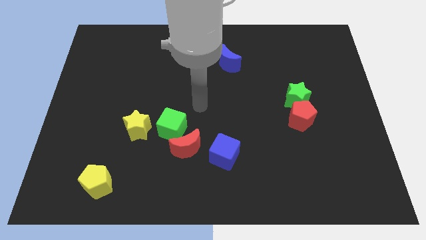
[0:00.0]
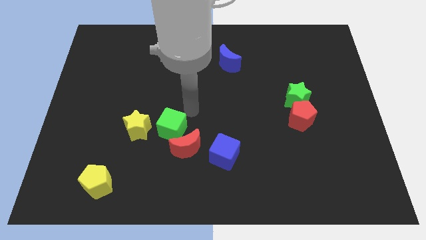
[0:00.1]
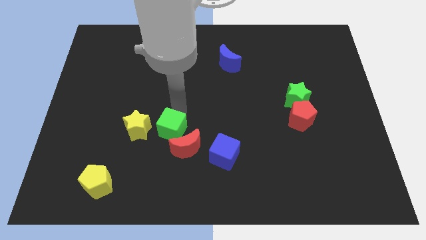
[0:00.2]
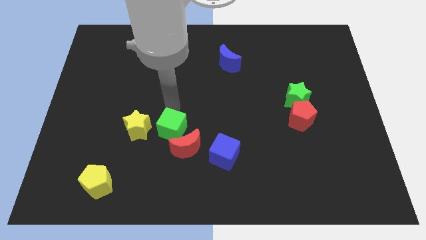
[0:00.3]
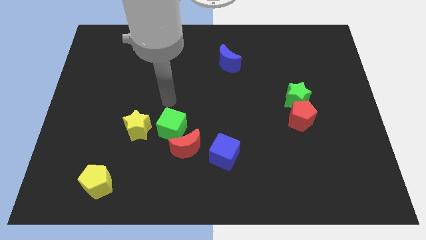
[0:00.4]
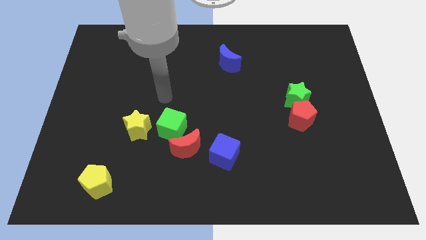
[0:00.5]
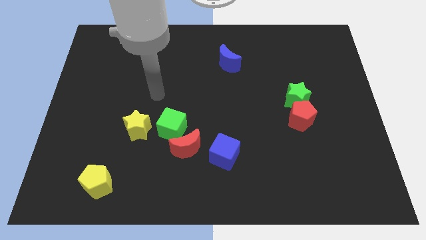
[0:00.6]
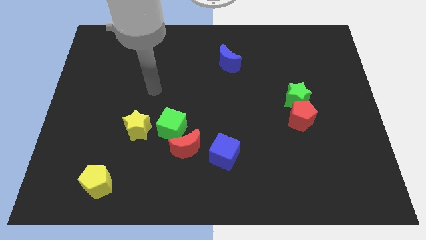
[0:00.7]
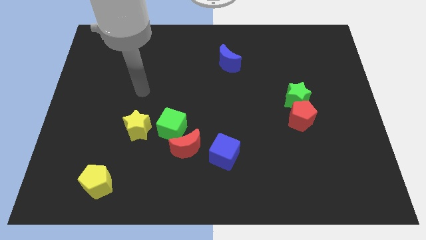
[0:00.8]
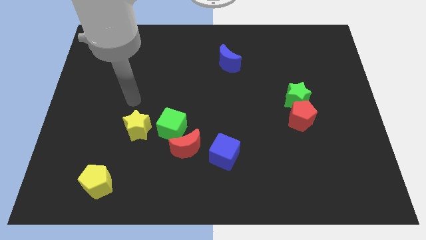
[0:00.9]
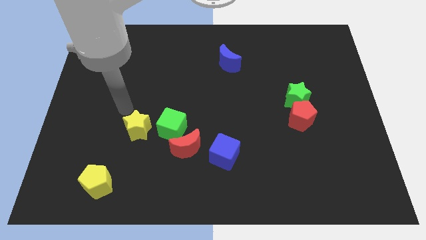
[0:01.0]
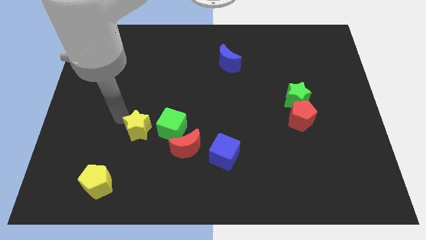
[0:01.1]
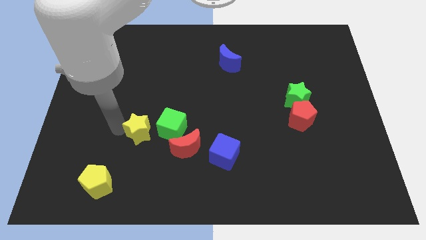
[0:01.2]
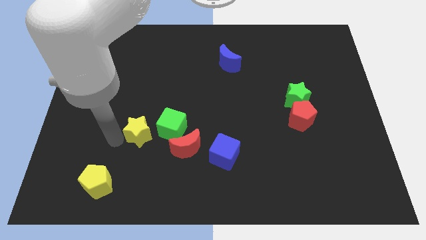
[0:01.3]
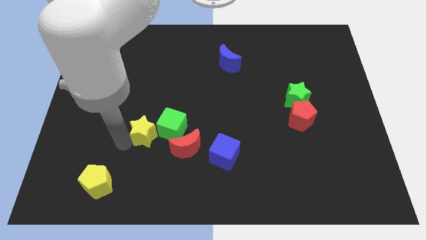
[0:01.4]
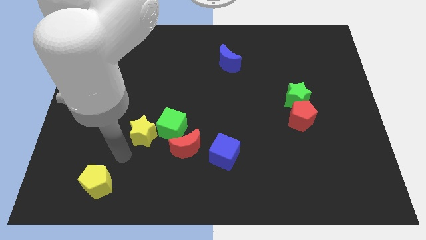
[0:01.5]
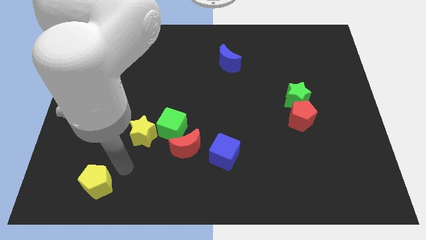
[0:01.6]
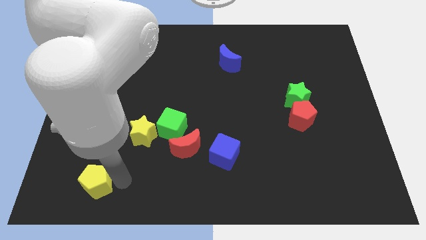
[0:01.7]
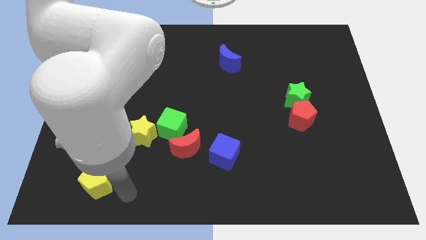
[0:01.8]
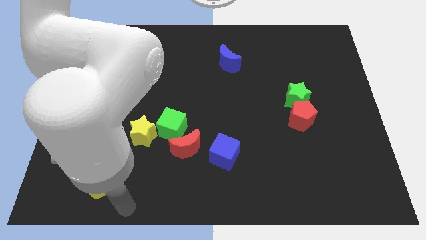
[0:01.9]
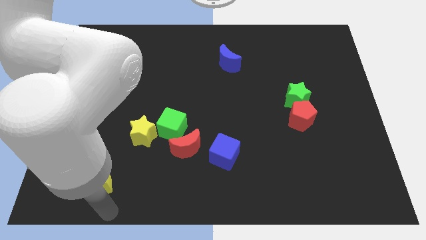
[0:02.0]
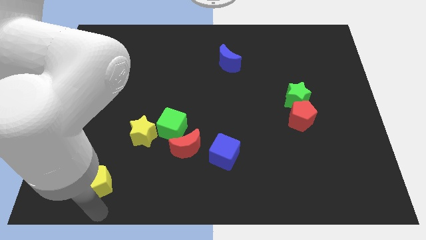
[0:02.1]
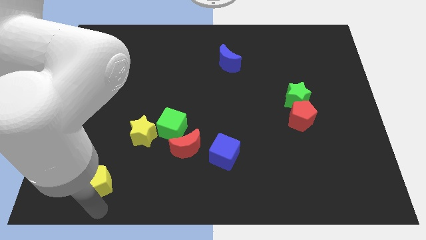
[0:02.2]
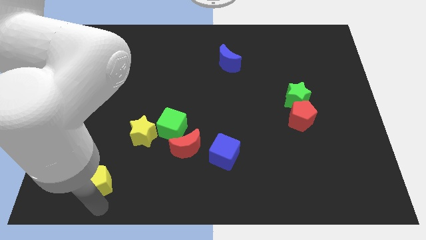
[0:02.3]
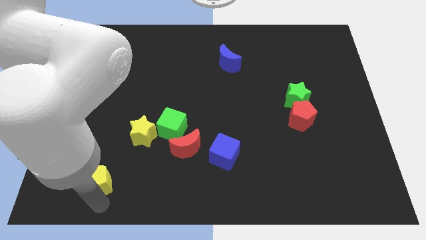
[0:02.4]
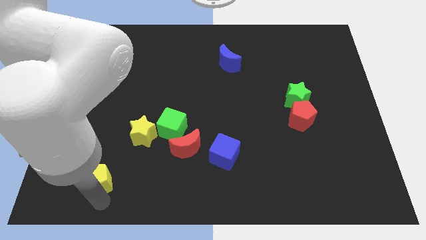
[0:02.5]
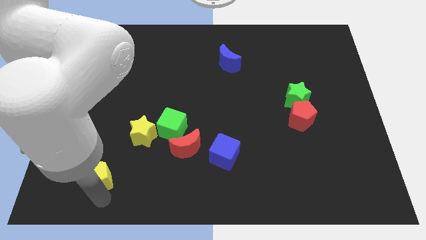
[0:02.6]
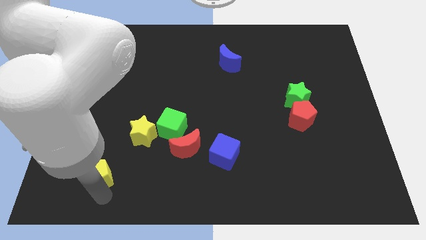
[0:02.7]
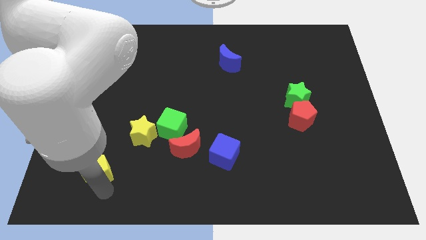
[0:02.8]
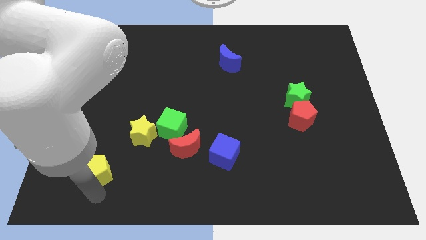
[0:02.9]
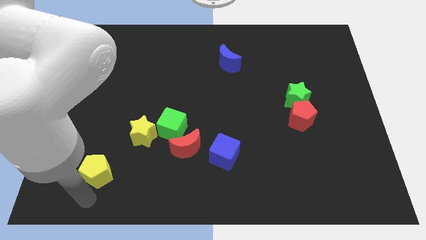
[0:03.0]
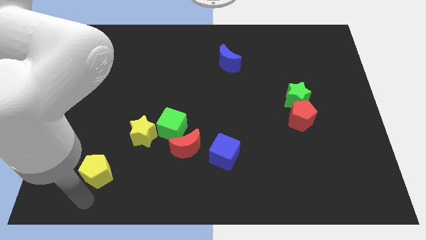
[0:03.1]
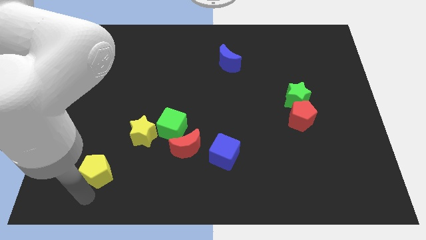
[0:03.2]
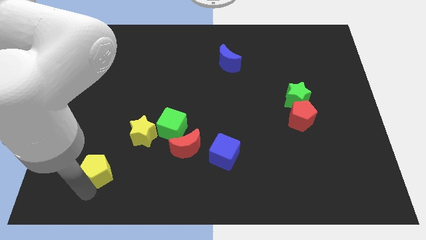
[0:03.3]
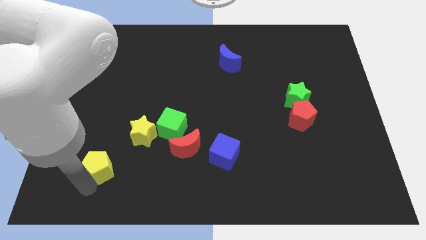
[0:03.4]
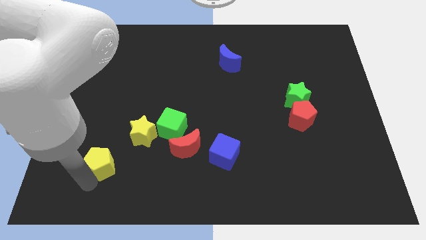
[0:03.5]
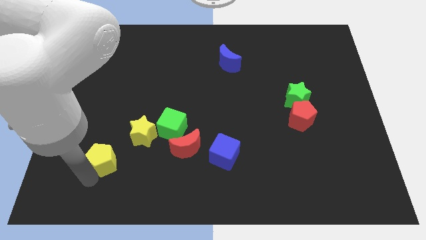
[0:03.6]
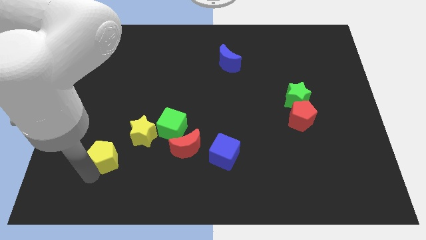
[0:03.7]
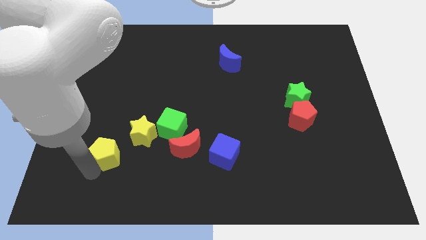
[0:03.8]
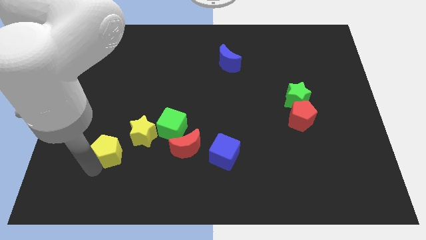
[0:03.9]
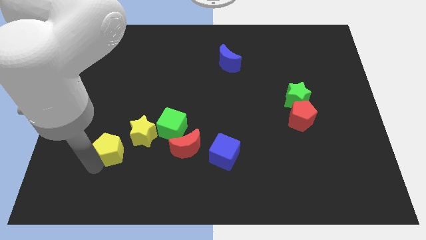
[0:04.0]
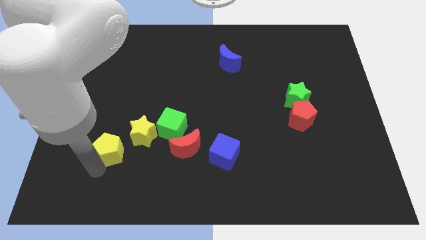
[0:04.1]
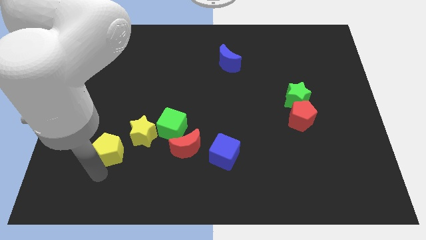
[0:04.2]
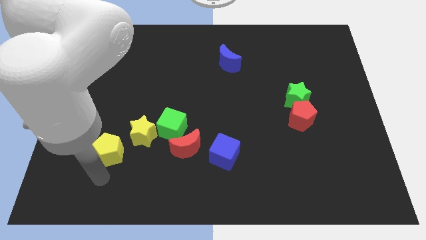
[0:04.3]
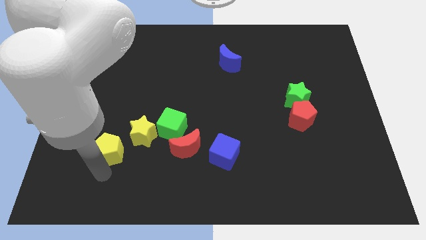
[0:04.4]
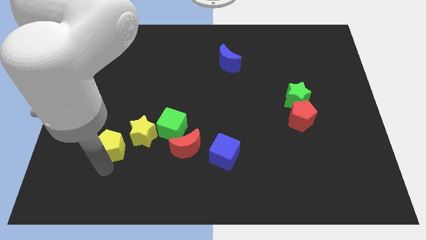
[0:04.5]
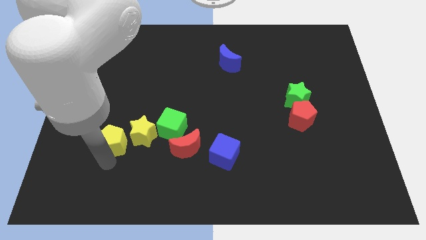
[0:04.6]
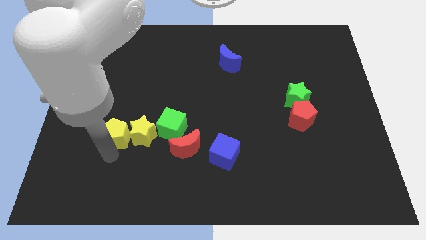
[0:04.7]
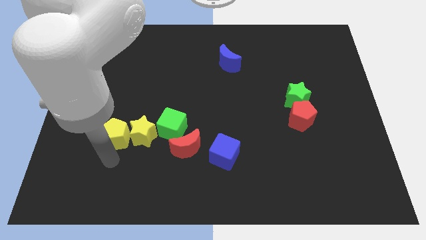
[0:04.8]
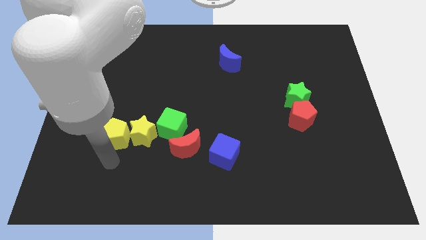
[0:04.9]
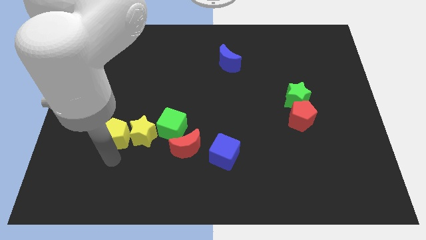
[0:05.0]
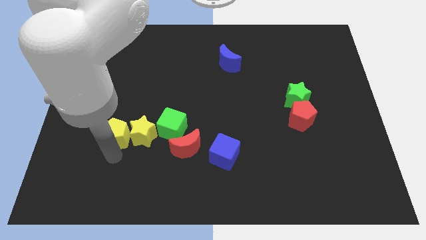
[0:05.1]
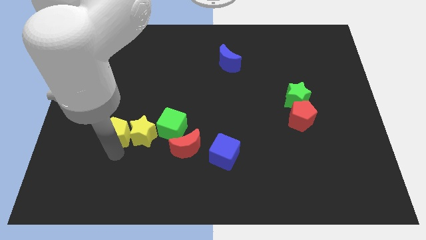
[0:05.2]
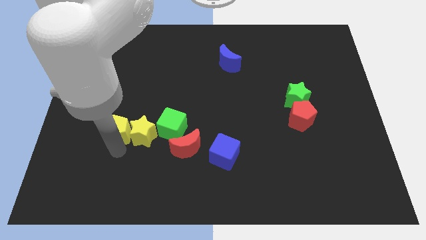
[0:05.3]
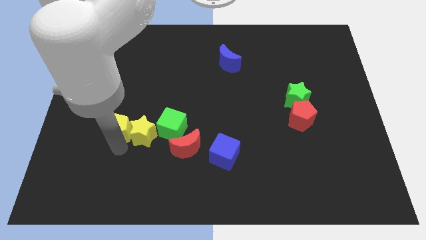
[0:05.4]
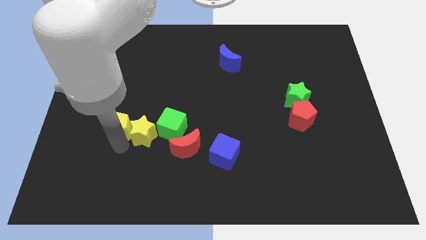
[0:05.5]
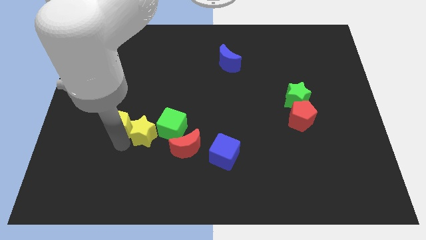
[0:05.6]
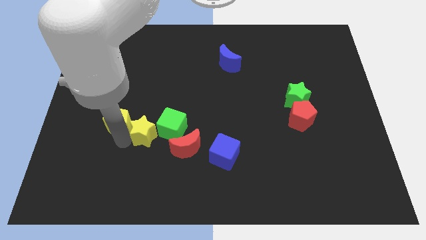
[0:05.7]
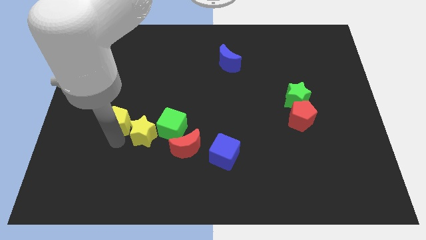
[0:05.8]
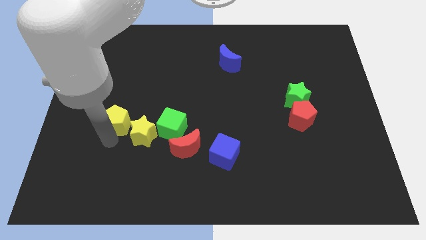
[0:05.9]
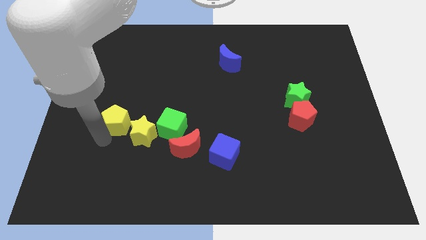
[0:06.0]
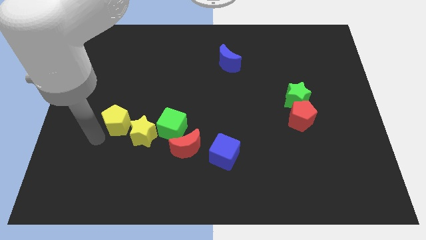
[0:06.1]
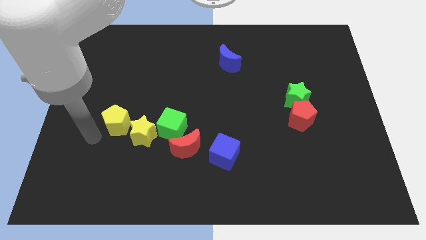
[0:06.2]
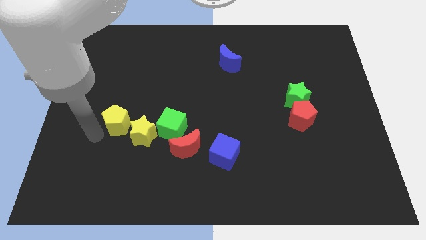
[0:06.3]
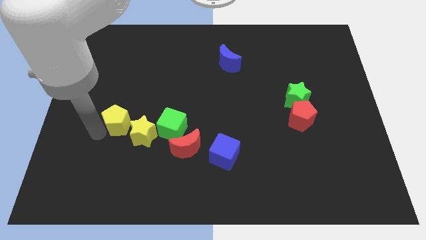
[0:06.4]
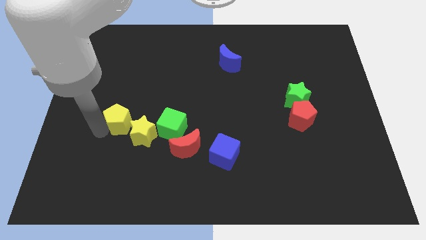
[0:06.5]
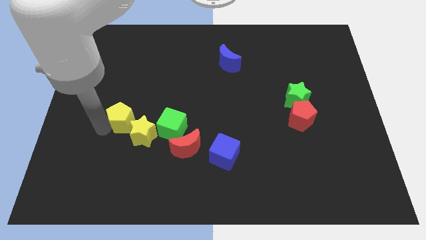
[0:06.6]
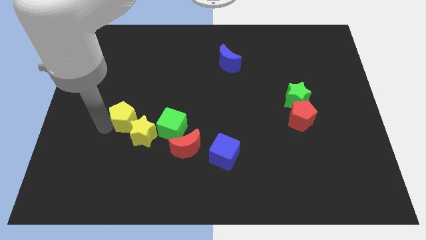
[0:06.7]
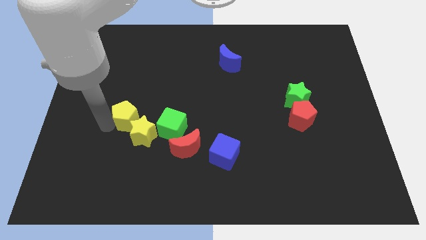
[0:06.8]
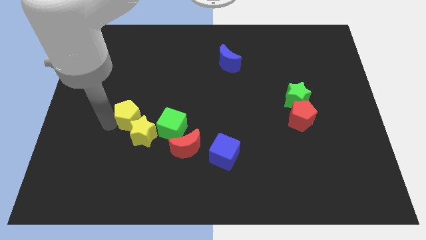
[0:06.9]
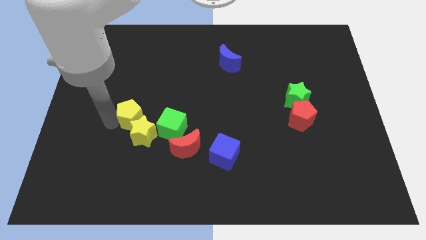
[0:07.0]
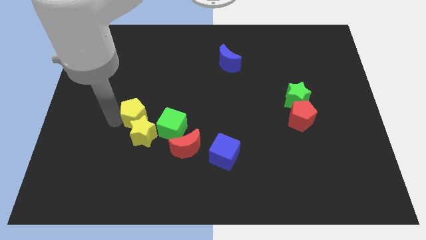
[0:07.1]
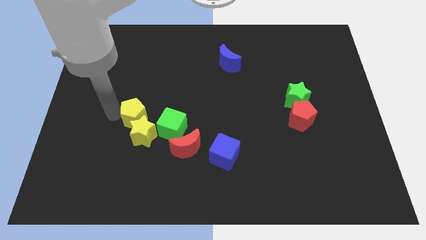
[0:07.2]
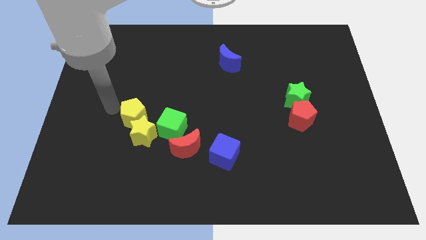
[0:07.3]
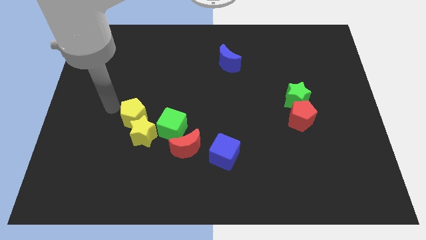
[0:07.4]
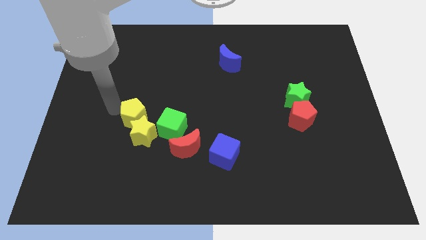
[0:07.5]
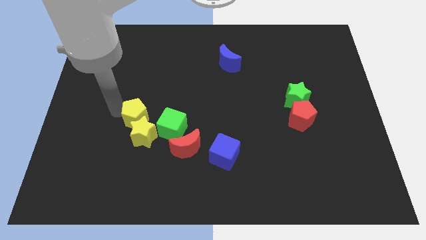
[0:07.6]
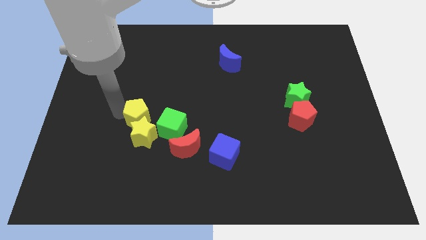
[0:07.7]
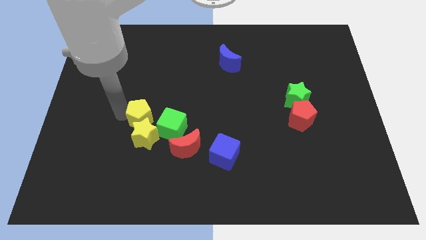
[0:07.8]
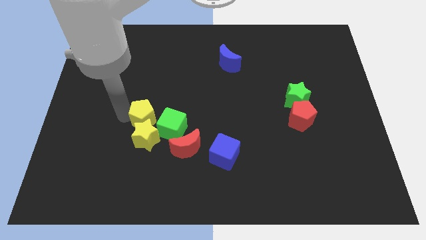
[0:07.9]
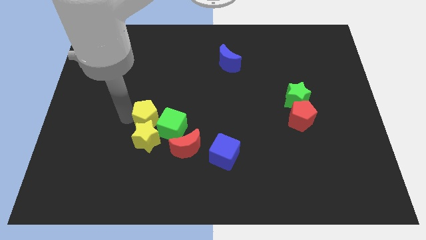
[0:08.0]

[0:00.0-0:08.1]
put the yellow pentagon to the top left side of the red moon
